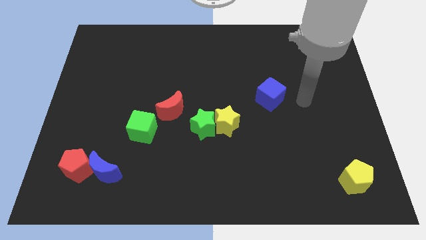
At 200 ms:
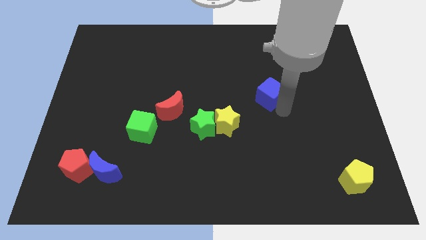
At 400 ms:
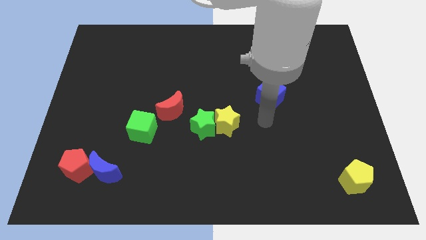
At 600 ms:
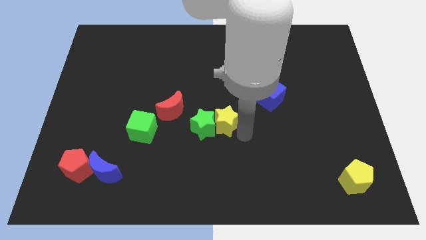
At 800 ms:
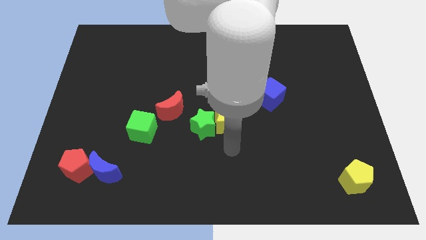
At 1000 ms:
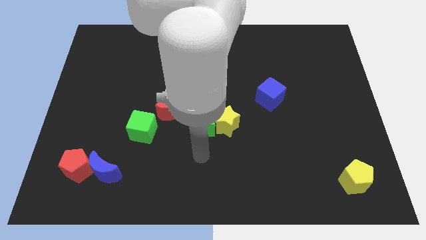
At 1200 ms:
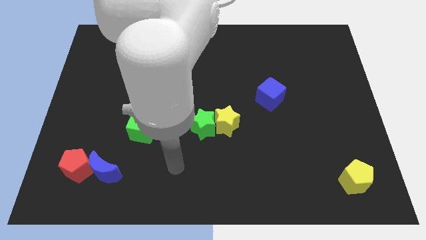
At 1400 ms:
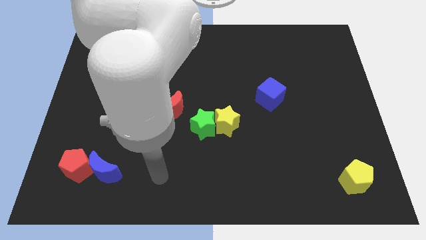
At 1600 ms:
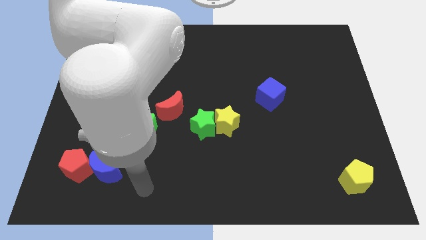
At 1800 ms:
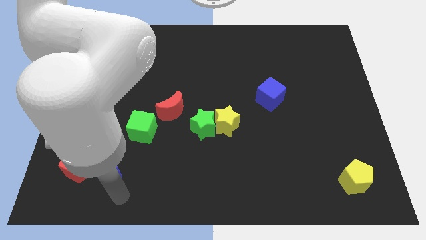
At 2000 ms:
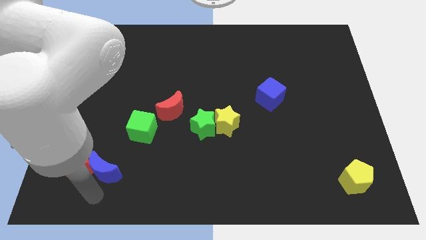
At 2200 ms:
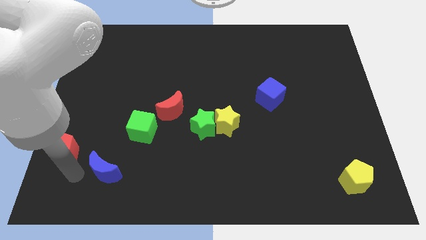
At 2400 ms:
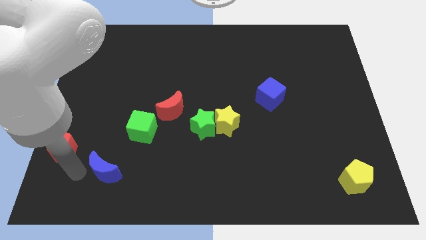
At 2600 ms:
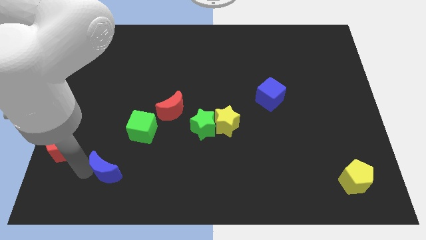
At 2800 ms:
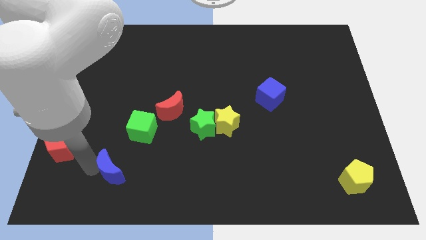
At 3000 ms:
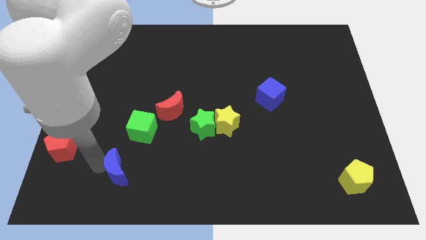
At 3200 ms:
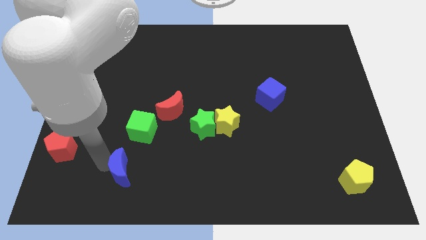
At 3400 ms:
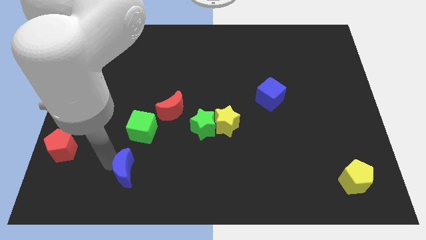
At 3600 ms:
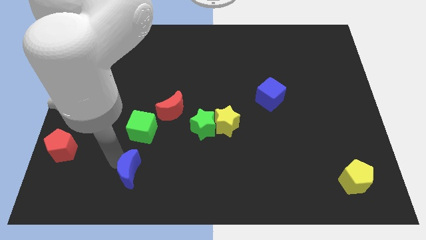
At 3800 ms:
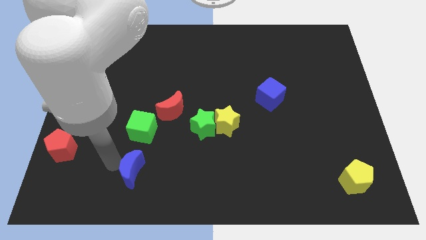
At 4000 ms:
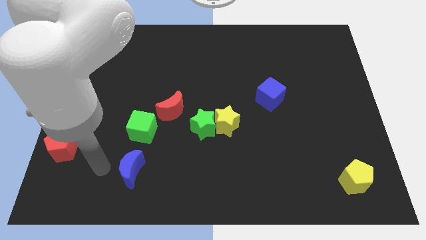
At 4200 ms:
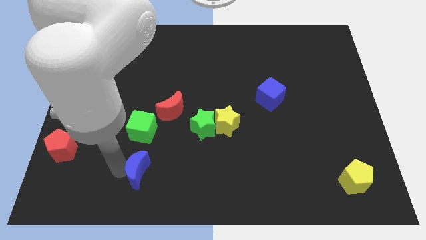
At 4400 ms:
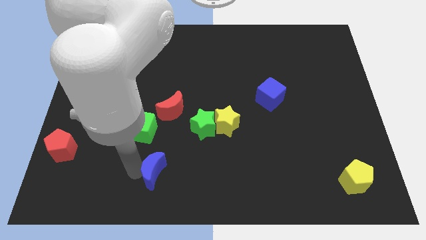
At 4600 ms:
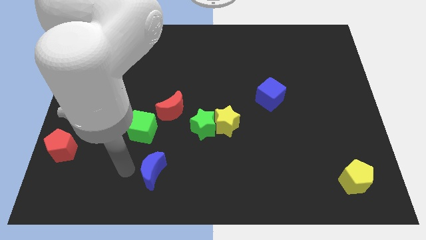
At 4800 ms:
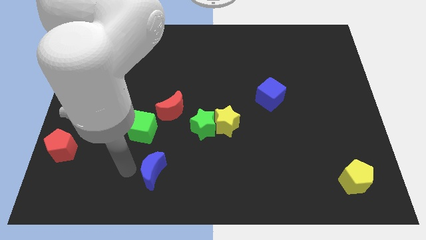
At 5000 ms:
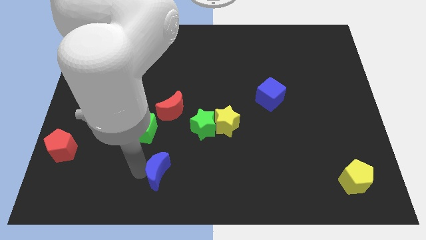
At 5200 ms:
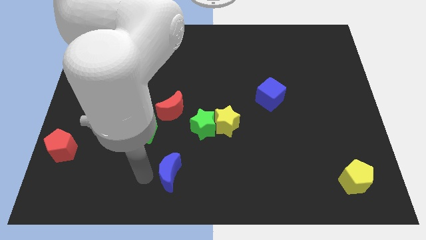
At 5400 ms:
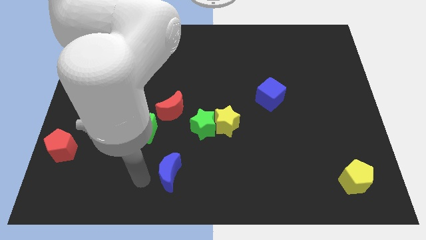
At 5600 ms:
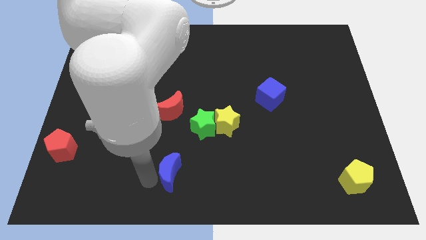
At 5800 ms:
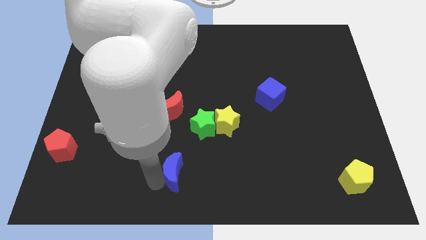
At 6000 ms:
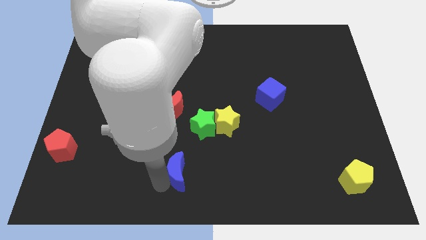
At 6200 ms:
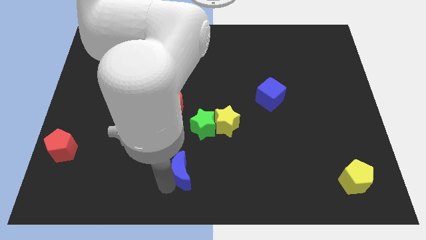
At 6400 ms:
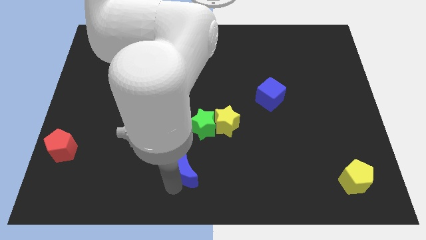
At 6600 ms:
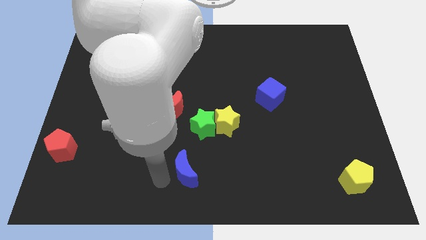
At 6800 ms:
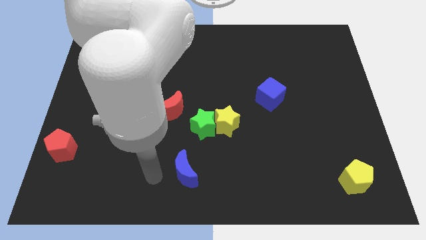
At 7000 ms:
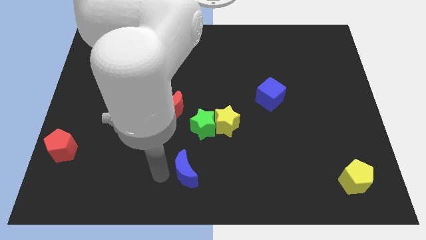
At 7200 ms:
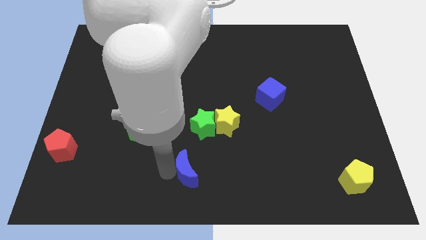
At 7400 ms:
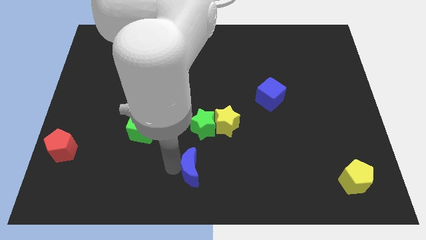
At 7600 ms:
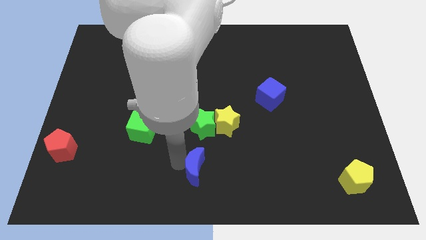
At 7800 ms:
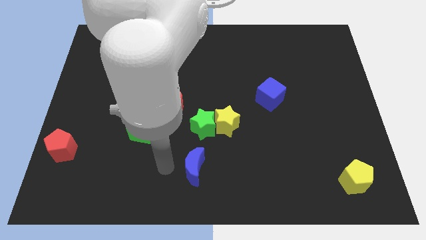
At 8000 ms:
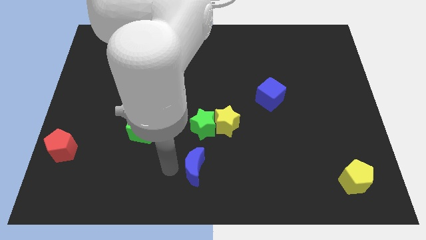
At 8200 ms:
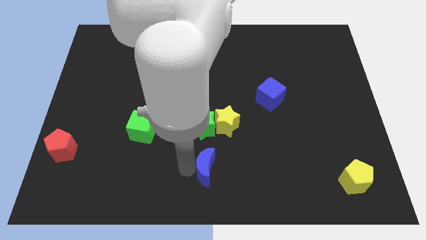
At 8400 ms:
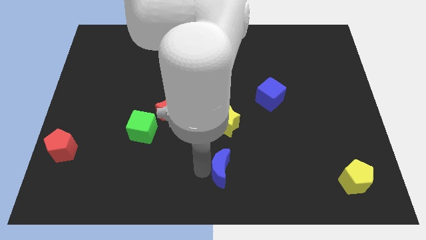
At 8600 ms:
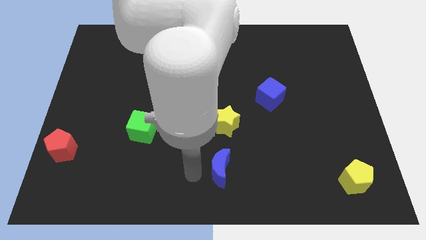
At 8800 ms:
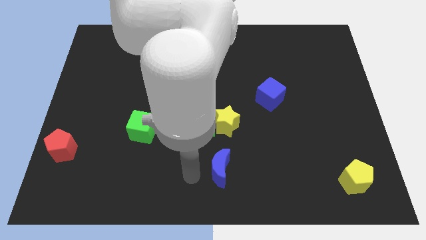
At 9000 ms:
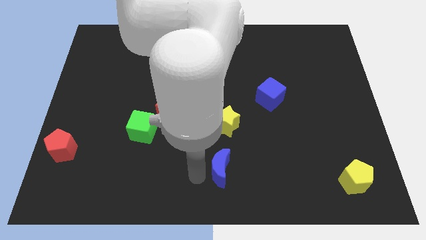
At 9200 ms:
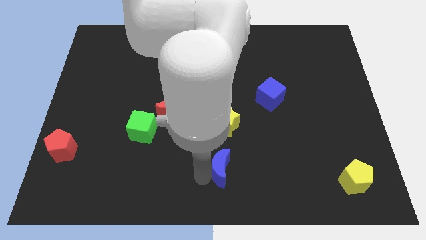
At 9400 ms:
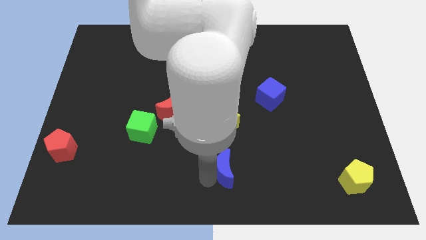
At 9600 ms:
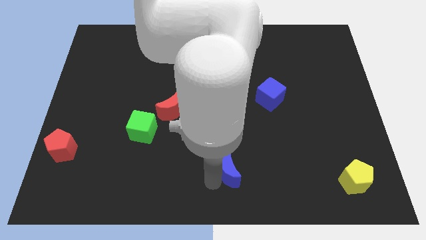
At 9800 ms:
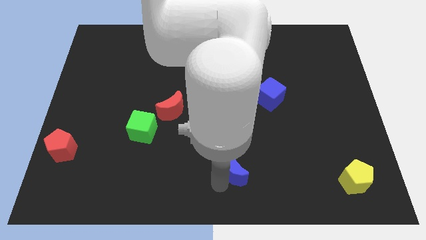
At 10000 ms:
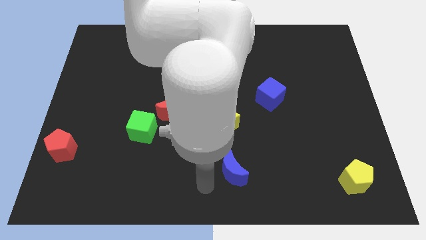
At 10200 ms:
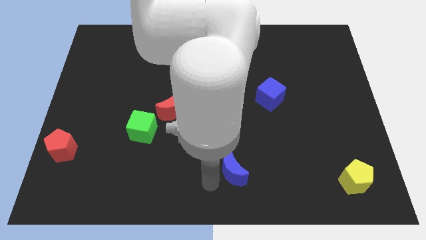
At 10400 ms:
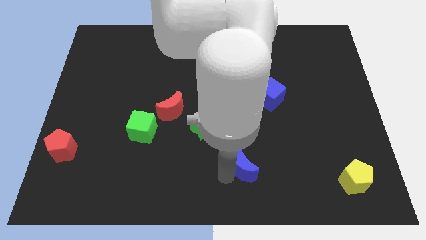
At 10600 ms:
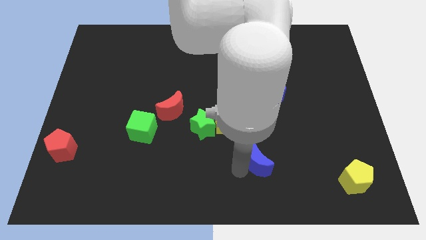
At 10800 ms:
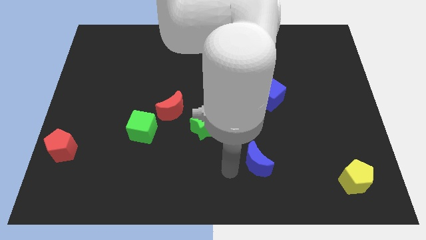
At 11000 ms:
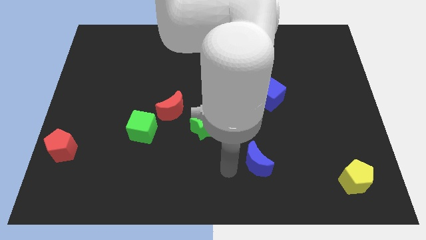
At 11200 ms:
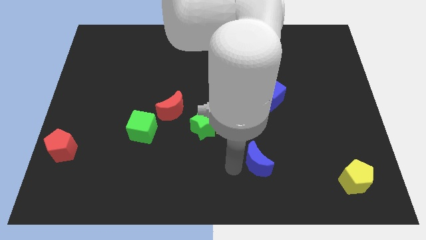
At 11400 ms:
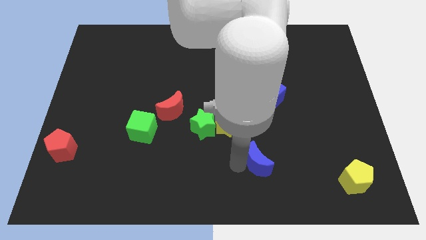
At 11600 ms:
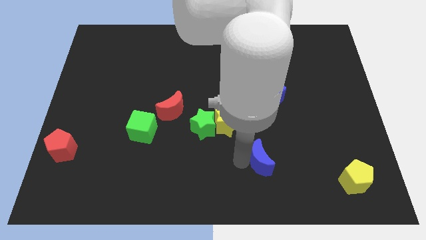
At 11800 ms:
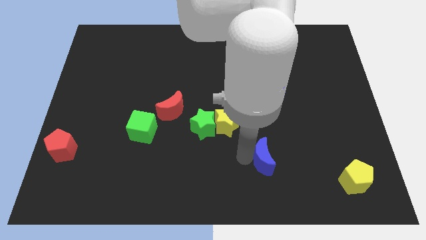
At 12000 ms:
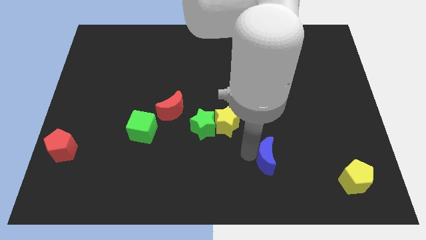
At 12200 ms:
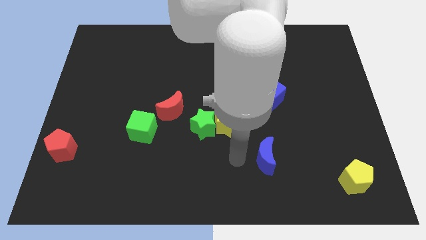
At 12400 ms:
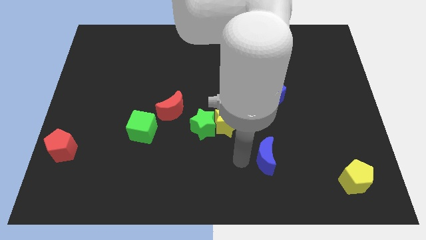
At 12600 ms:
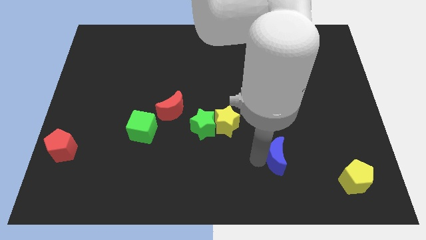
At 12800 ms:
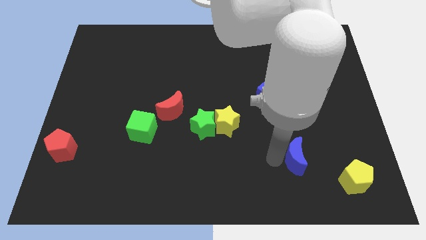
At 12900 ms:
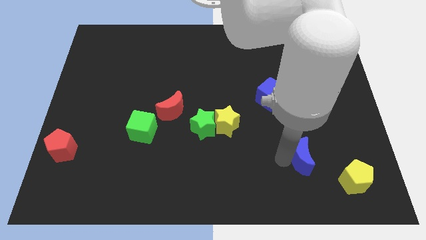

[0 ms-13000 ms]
move the blue moon diagonally up and to the left of the yellow pentagon

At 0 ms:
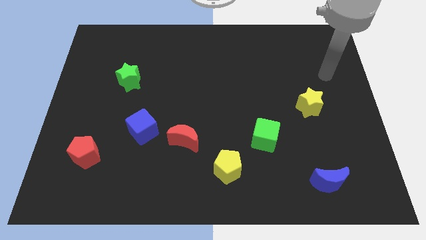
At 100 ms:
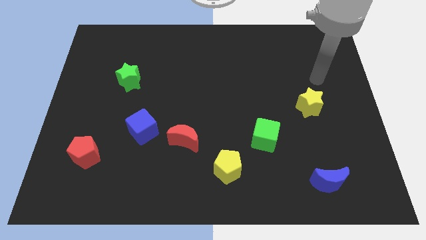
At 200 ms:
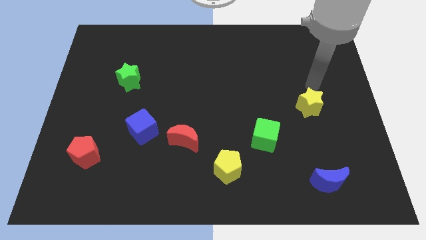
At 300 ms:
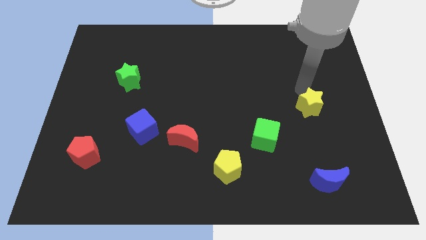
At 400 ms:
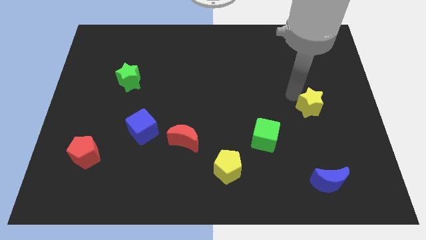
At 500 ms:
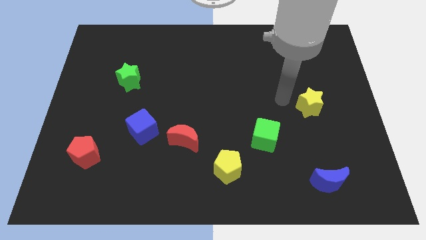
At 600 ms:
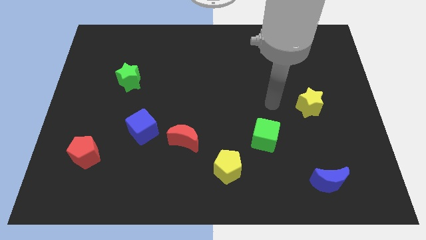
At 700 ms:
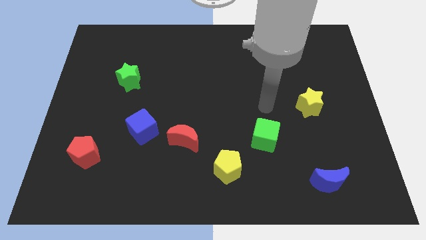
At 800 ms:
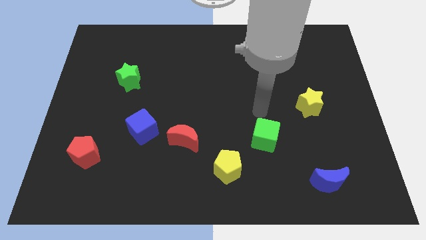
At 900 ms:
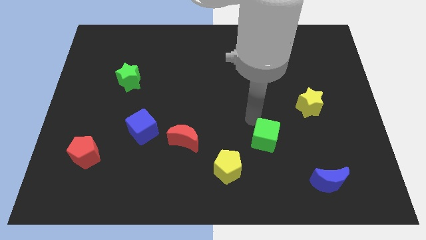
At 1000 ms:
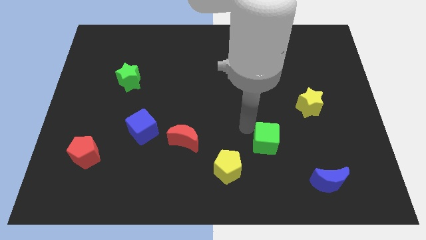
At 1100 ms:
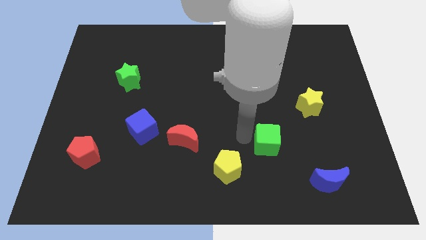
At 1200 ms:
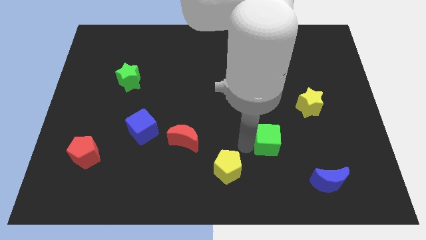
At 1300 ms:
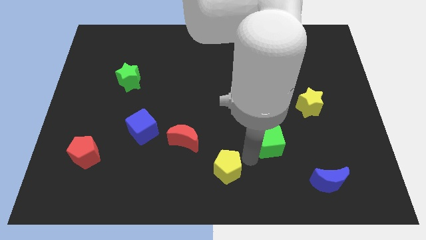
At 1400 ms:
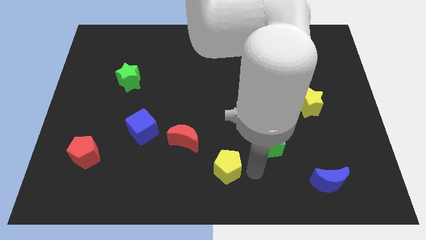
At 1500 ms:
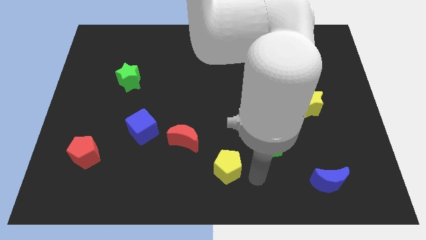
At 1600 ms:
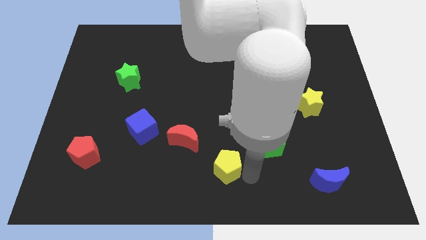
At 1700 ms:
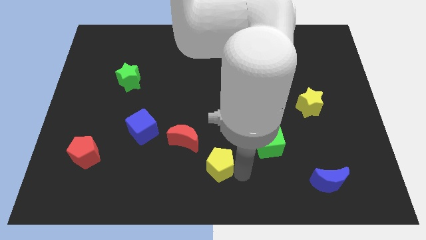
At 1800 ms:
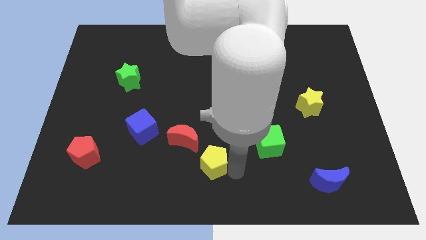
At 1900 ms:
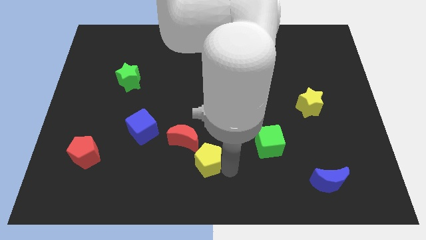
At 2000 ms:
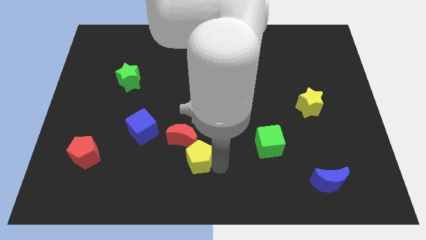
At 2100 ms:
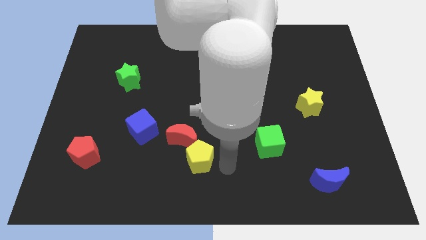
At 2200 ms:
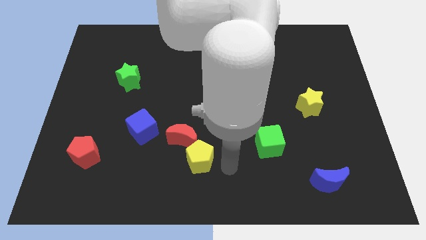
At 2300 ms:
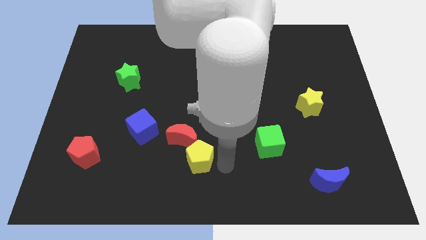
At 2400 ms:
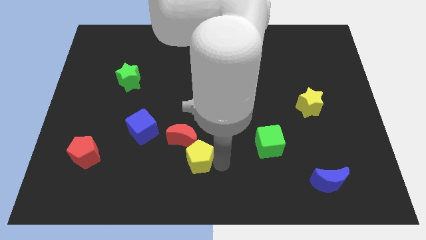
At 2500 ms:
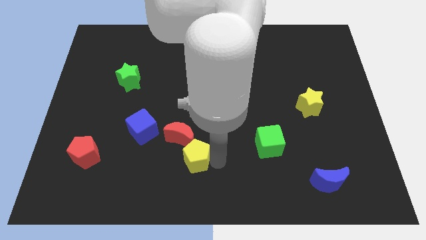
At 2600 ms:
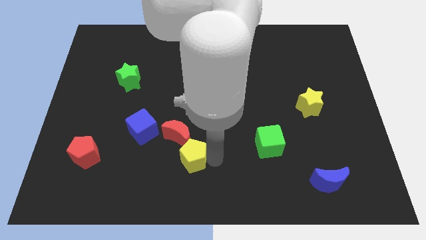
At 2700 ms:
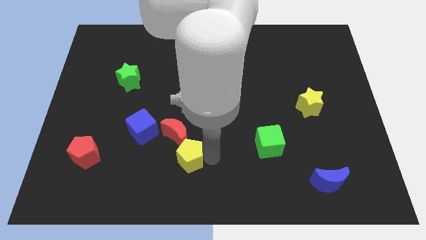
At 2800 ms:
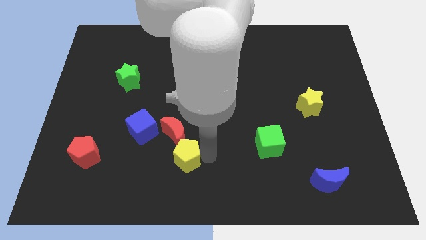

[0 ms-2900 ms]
slide the yellow pentagon to the bottom right side of the blue cube
